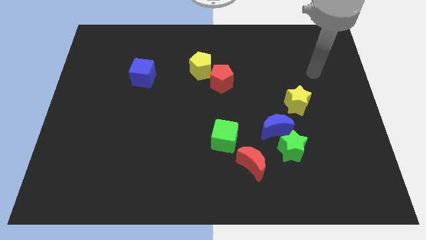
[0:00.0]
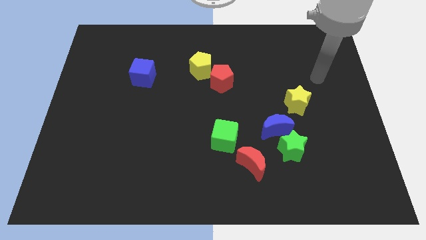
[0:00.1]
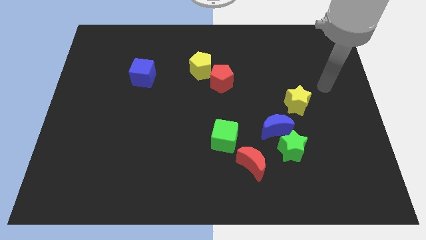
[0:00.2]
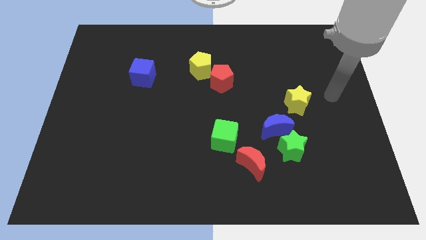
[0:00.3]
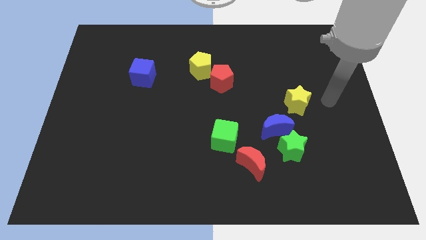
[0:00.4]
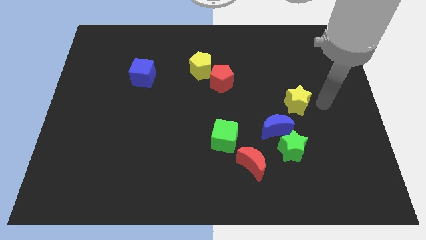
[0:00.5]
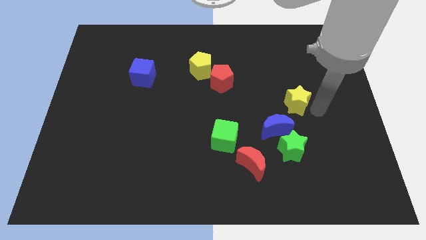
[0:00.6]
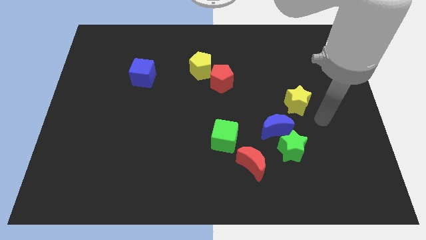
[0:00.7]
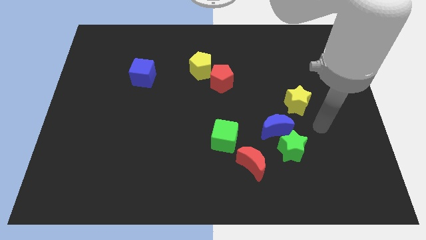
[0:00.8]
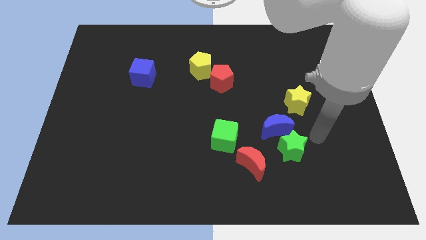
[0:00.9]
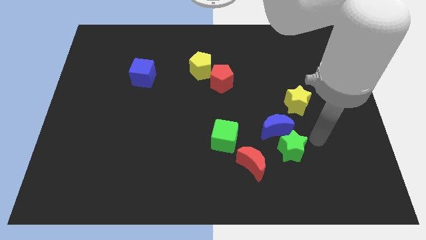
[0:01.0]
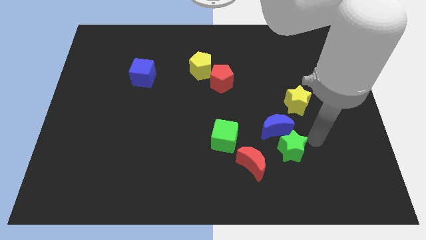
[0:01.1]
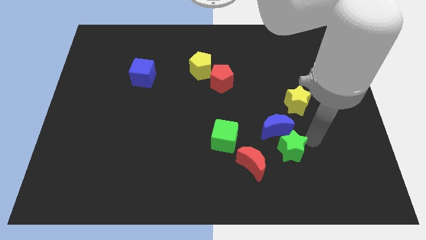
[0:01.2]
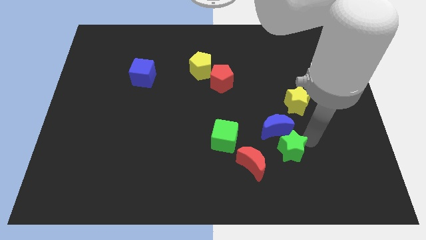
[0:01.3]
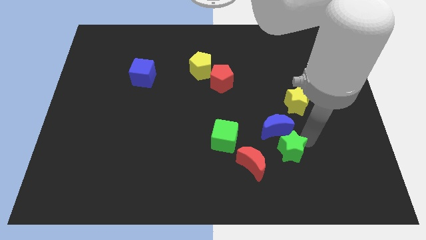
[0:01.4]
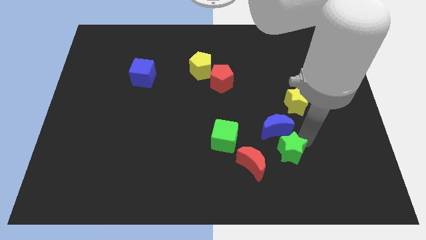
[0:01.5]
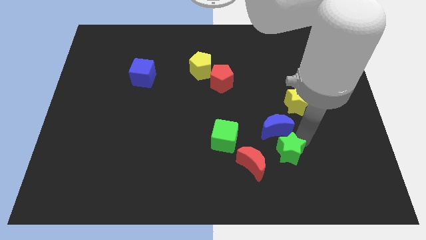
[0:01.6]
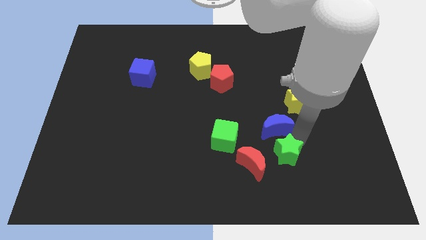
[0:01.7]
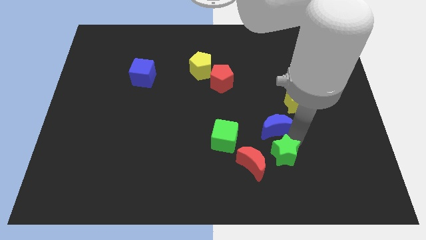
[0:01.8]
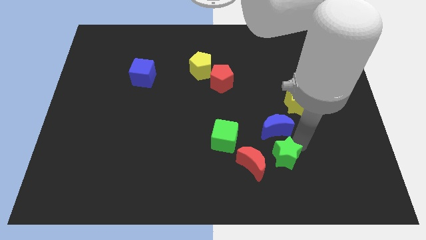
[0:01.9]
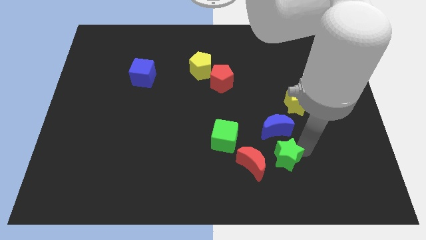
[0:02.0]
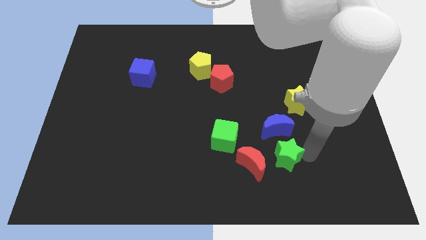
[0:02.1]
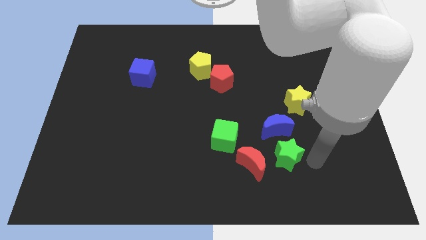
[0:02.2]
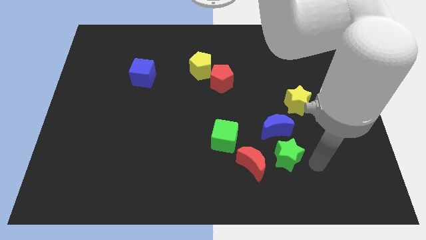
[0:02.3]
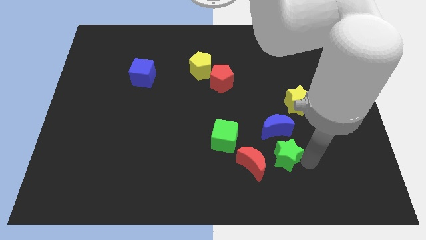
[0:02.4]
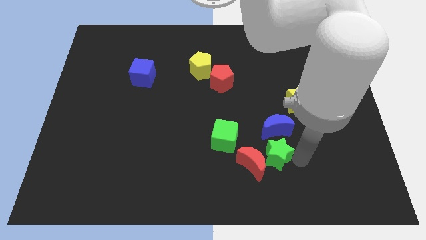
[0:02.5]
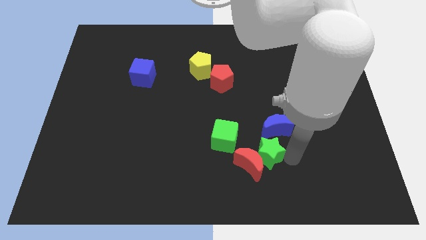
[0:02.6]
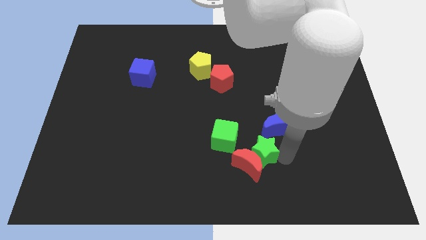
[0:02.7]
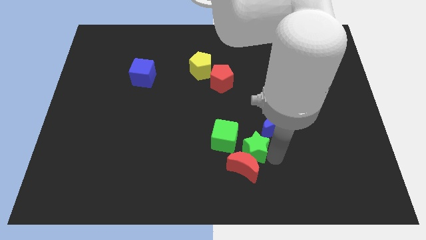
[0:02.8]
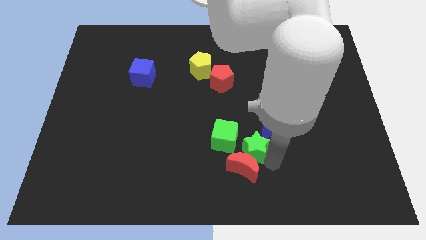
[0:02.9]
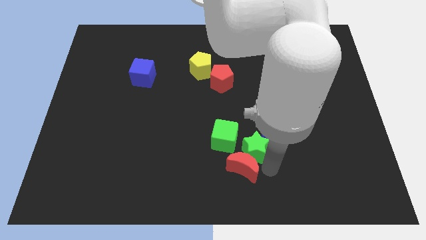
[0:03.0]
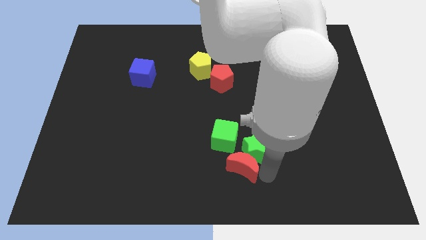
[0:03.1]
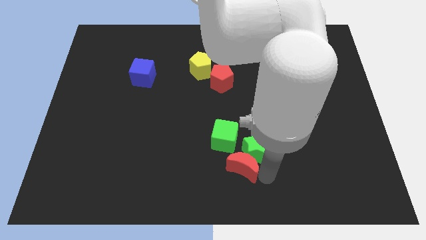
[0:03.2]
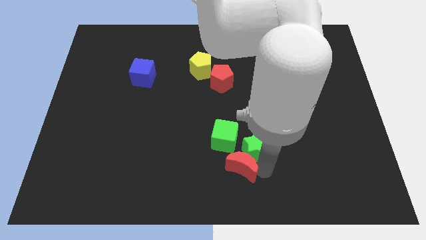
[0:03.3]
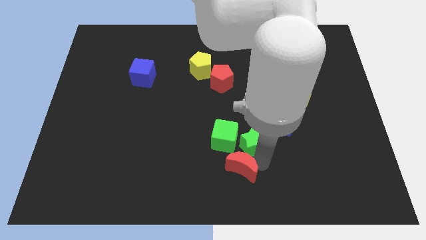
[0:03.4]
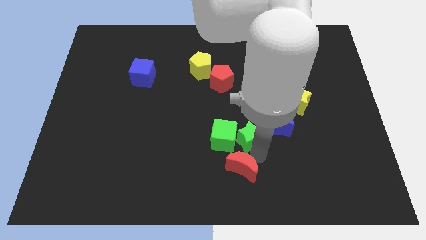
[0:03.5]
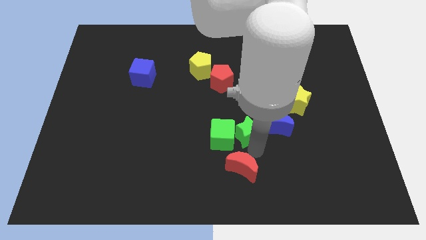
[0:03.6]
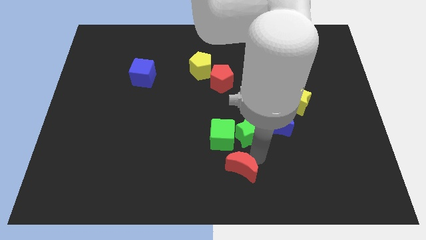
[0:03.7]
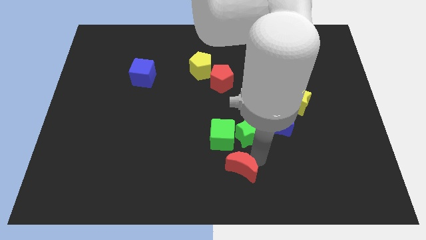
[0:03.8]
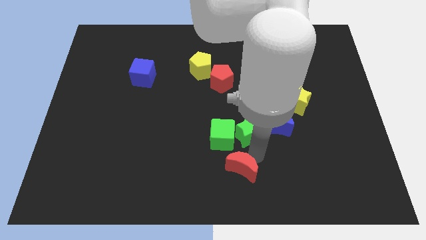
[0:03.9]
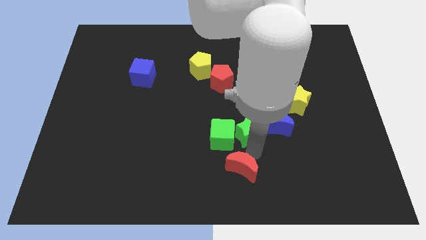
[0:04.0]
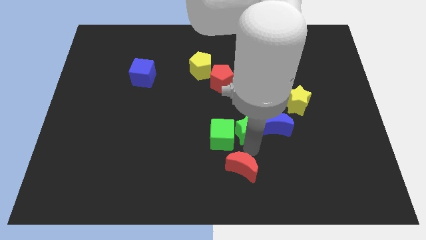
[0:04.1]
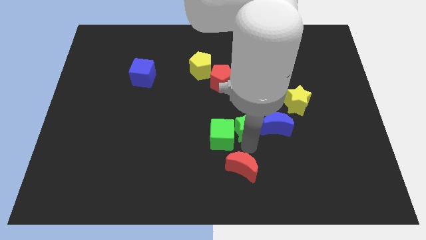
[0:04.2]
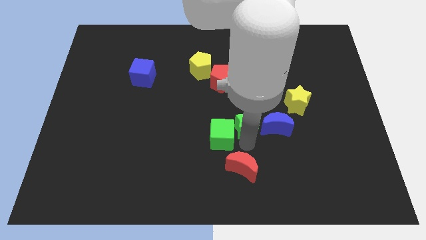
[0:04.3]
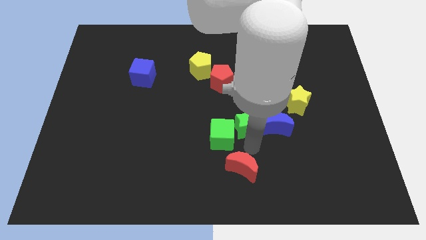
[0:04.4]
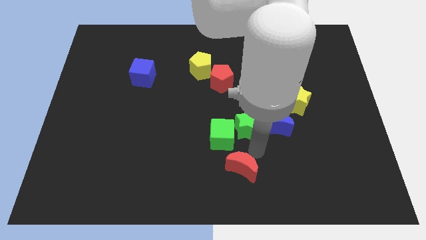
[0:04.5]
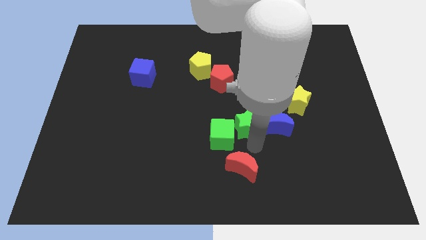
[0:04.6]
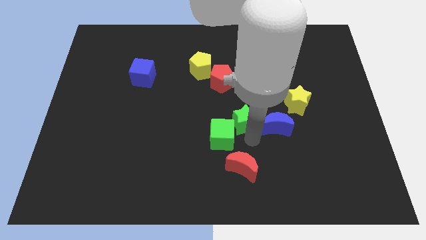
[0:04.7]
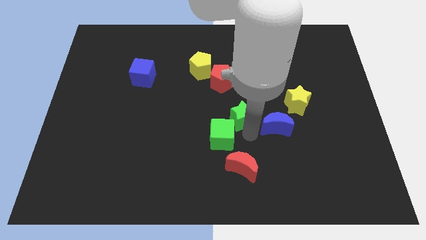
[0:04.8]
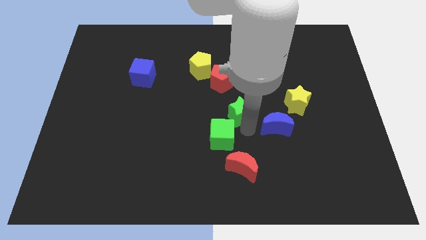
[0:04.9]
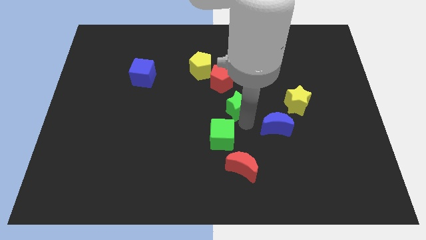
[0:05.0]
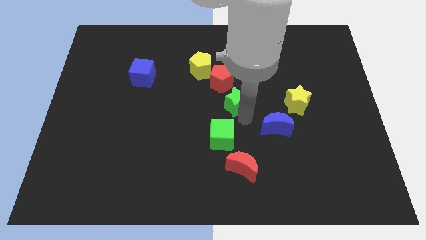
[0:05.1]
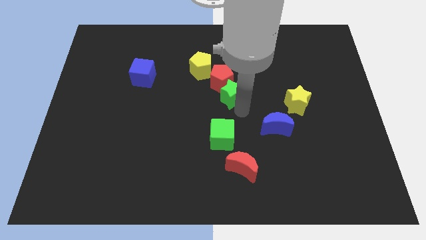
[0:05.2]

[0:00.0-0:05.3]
move the green star to the red pentagon

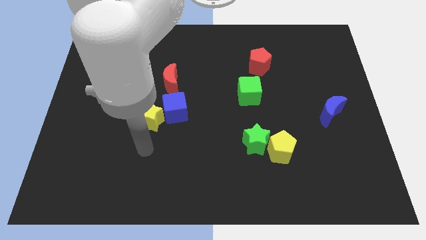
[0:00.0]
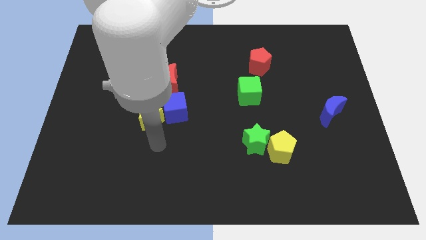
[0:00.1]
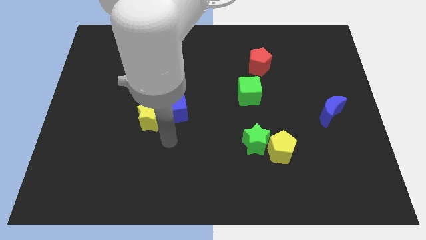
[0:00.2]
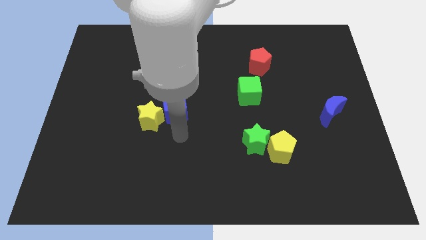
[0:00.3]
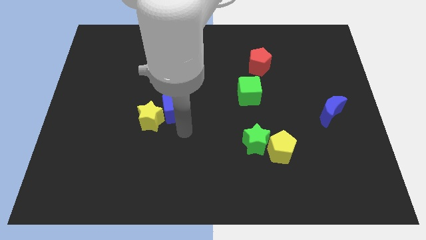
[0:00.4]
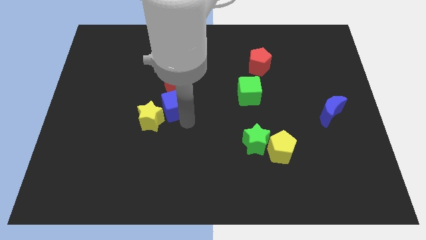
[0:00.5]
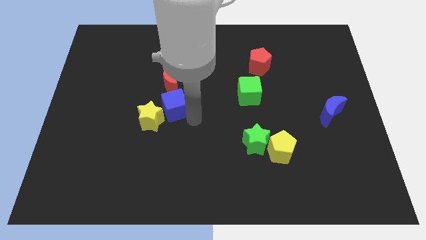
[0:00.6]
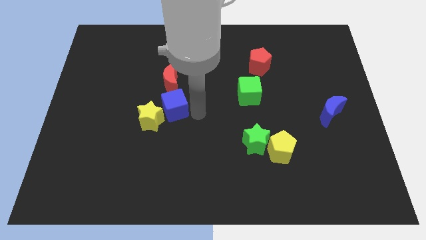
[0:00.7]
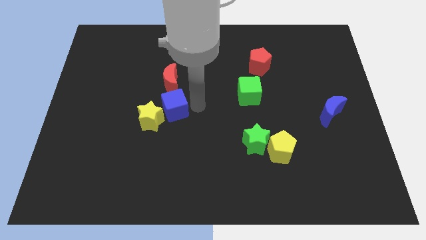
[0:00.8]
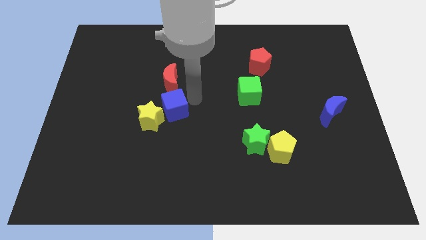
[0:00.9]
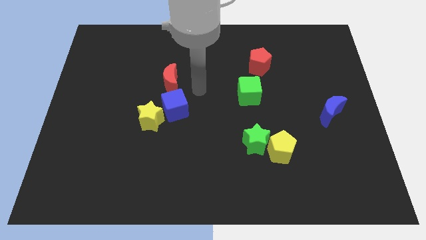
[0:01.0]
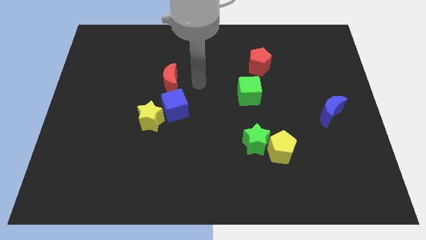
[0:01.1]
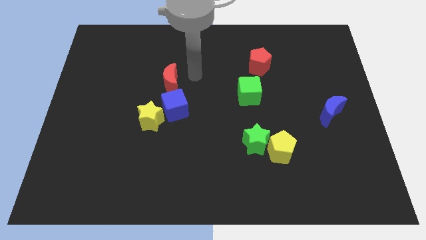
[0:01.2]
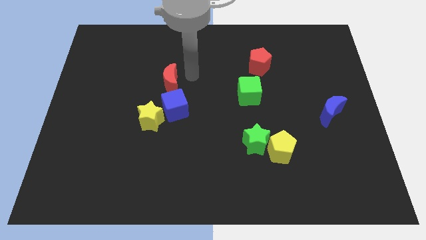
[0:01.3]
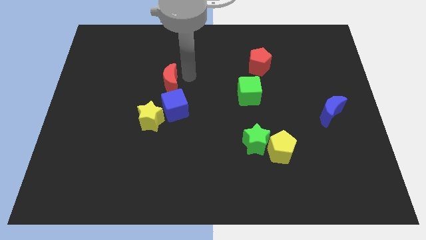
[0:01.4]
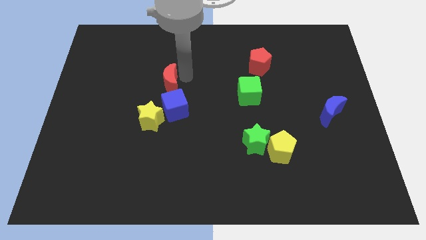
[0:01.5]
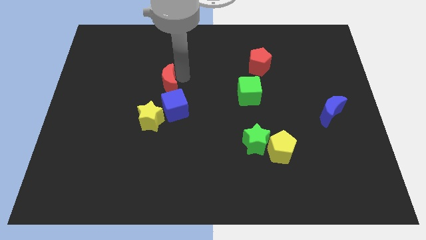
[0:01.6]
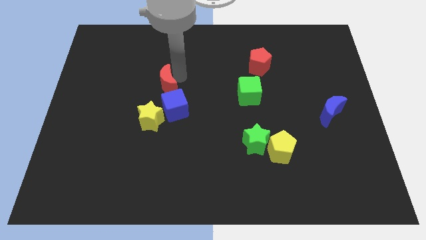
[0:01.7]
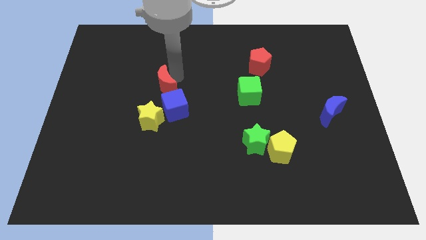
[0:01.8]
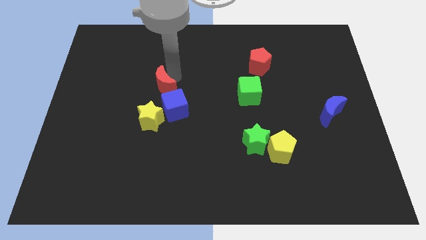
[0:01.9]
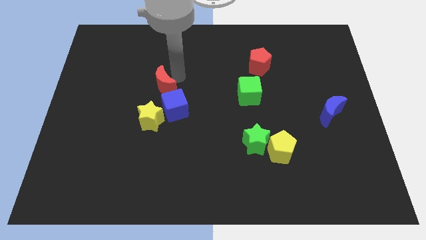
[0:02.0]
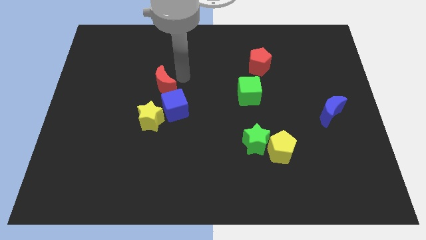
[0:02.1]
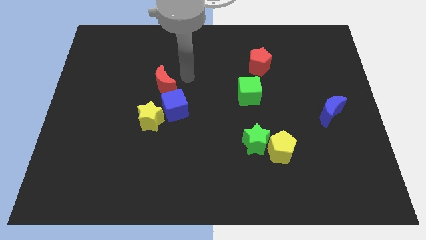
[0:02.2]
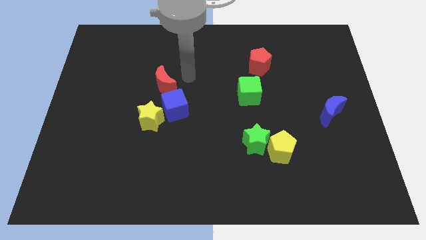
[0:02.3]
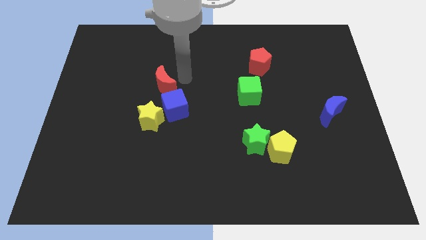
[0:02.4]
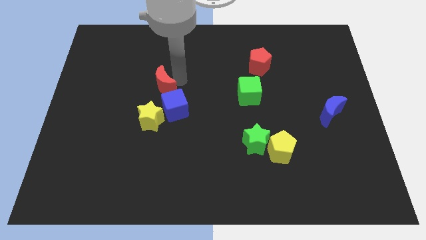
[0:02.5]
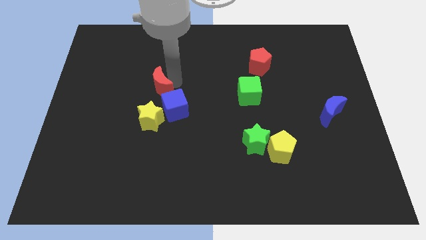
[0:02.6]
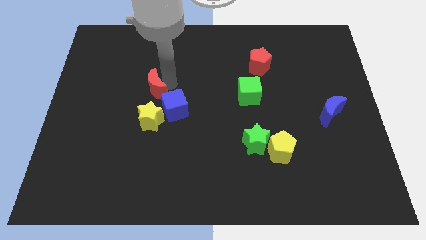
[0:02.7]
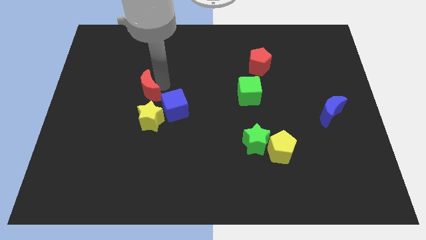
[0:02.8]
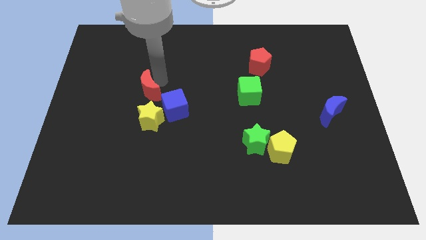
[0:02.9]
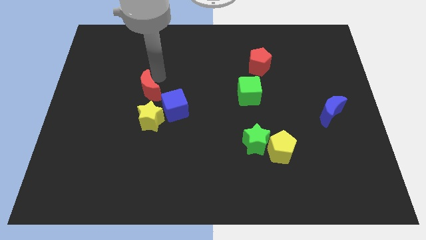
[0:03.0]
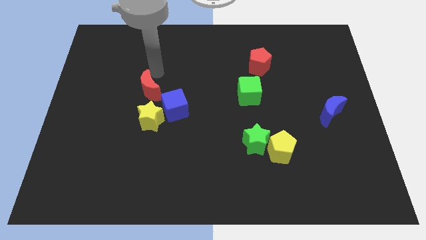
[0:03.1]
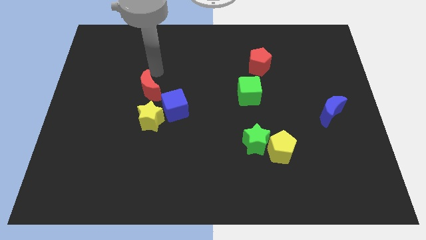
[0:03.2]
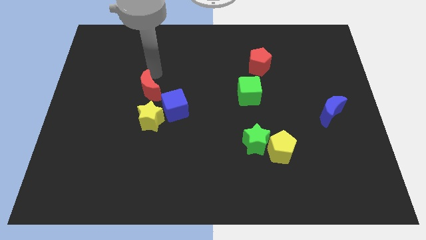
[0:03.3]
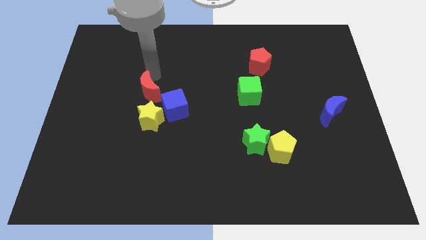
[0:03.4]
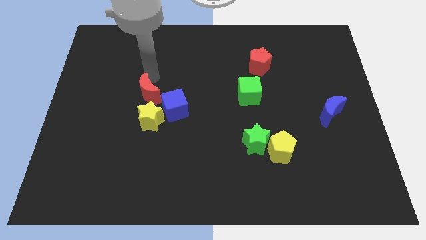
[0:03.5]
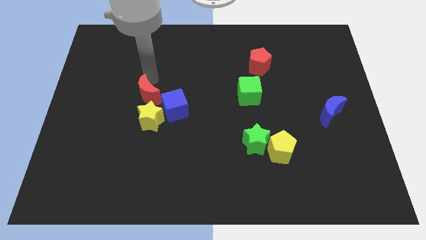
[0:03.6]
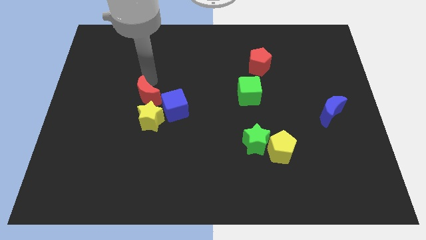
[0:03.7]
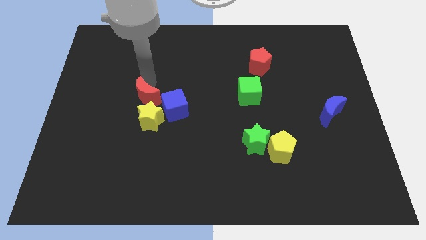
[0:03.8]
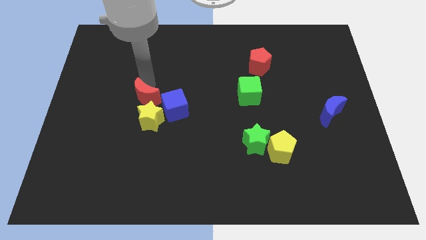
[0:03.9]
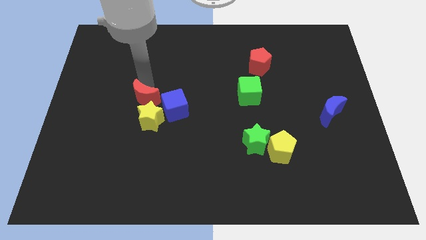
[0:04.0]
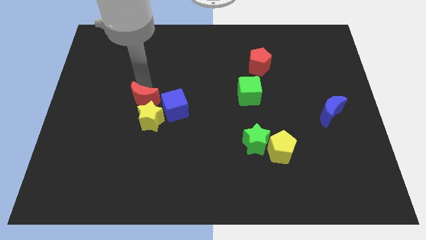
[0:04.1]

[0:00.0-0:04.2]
push the red moon close to the yellow star
